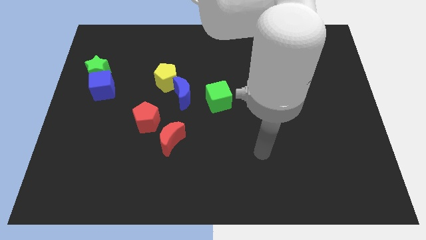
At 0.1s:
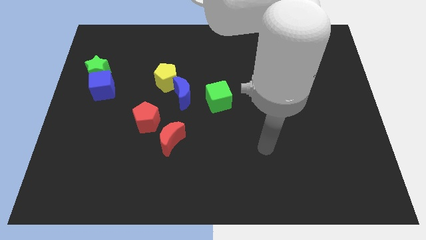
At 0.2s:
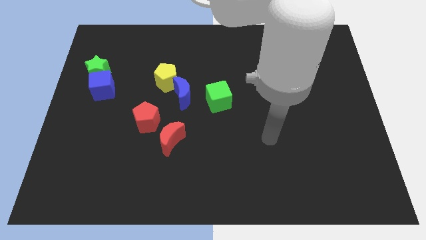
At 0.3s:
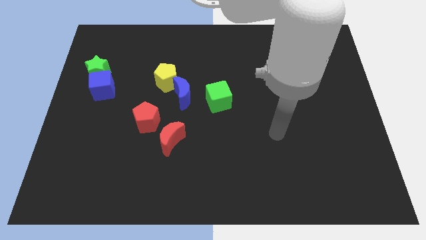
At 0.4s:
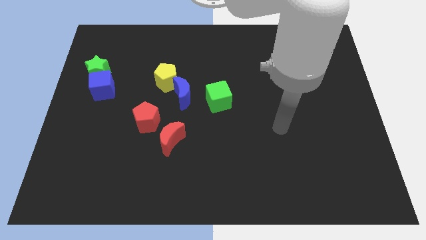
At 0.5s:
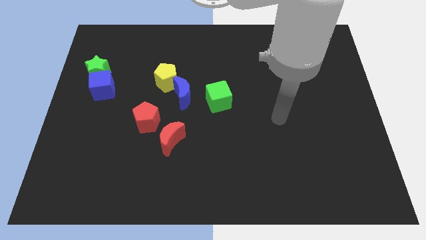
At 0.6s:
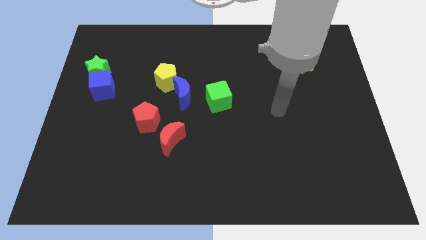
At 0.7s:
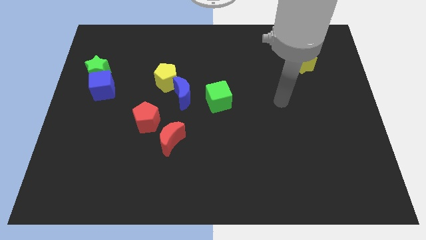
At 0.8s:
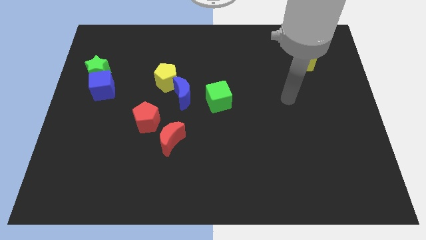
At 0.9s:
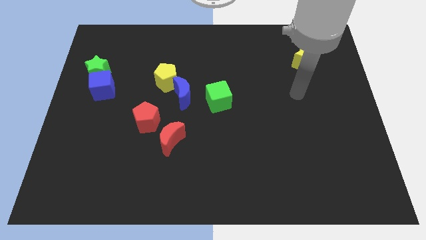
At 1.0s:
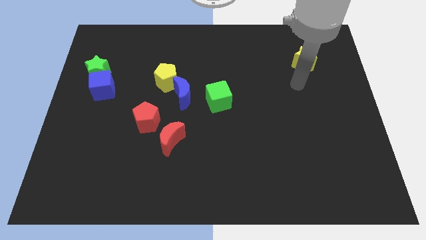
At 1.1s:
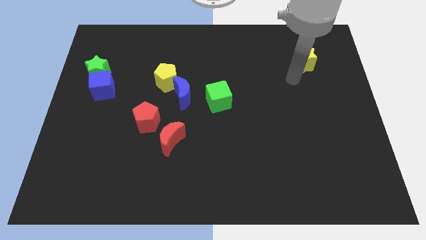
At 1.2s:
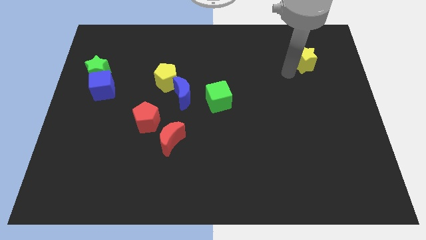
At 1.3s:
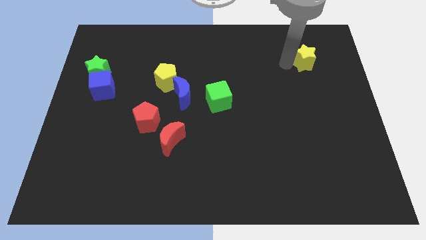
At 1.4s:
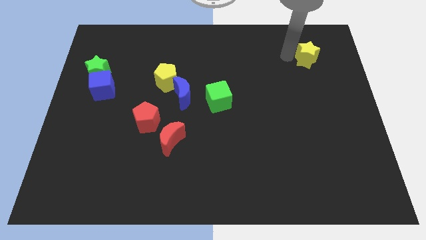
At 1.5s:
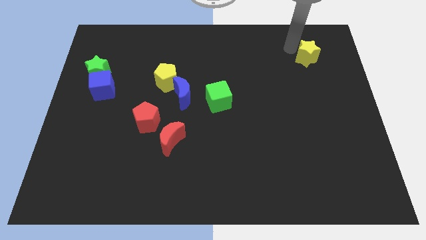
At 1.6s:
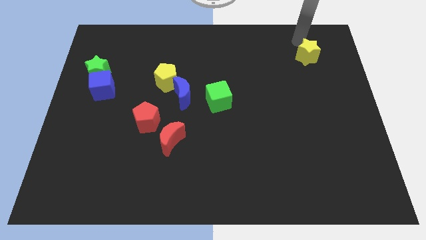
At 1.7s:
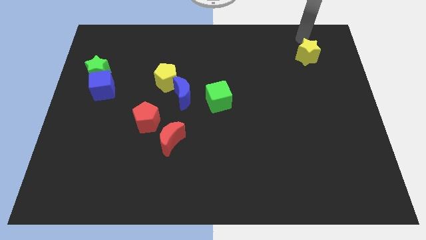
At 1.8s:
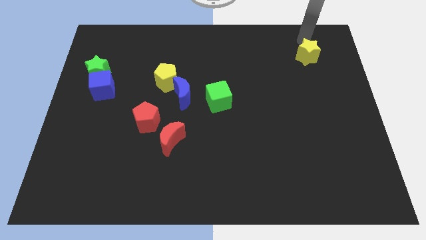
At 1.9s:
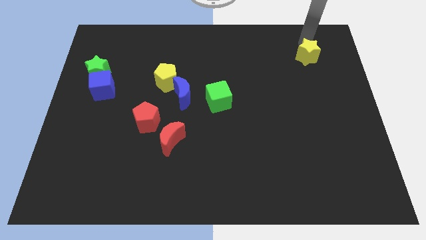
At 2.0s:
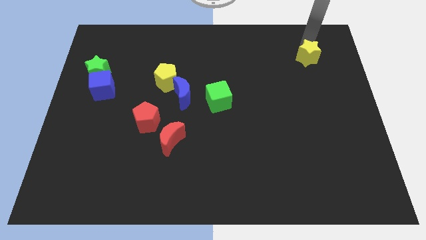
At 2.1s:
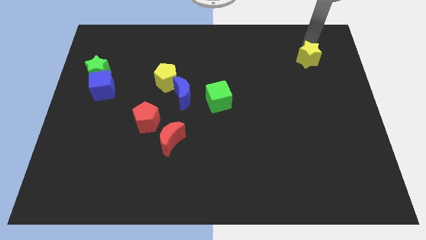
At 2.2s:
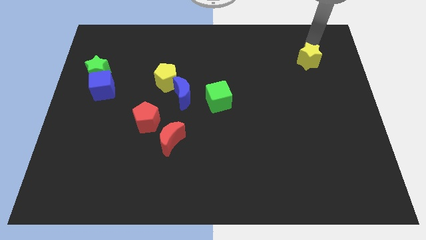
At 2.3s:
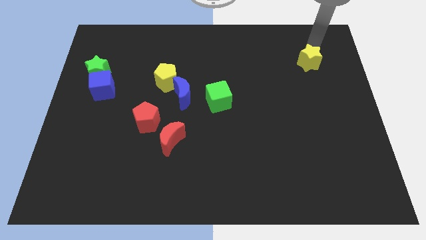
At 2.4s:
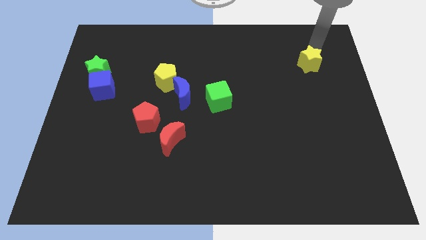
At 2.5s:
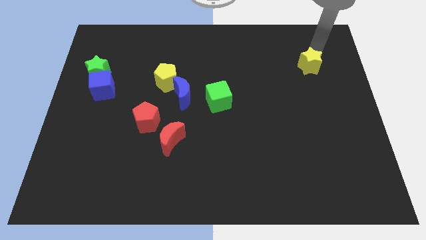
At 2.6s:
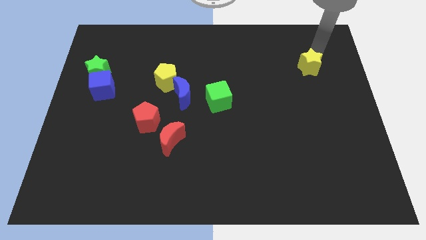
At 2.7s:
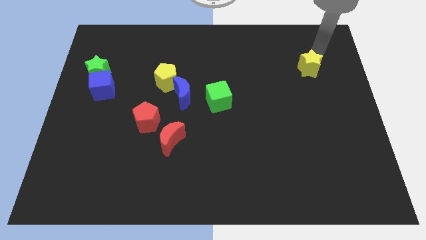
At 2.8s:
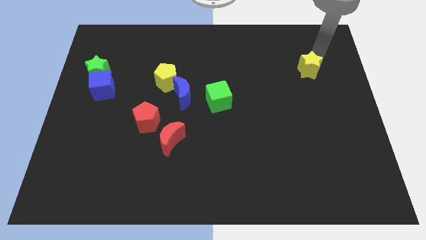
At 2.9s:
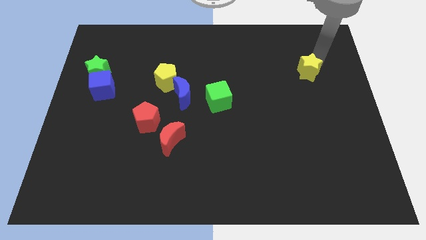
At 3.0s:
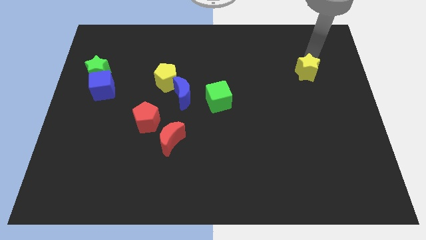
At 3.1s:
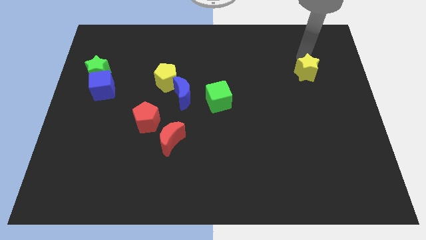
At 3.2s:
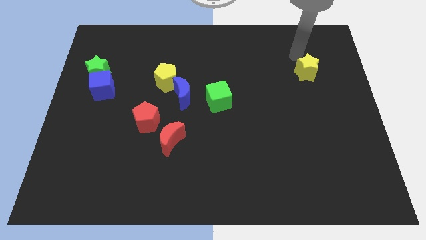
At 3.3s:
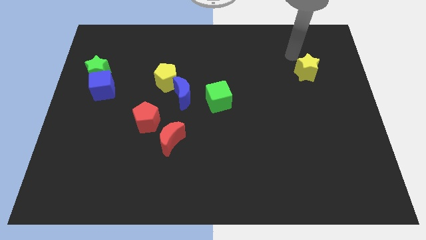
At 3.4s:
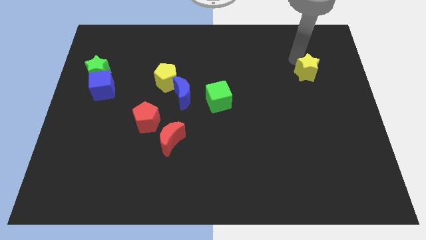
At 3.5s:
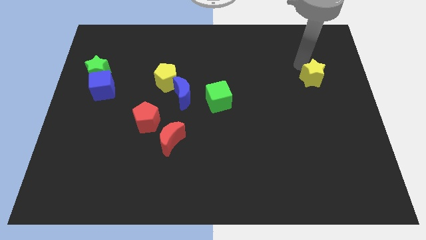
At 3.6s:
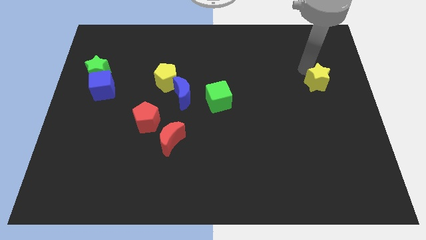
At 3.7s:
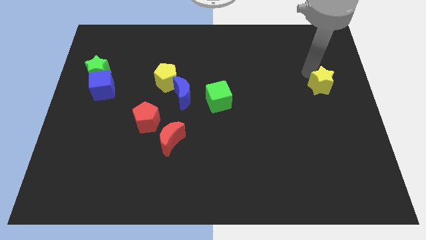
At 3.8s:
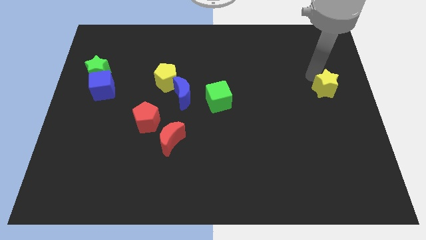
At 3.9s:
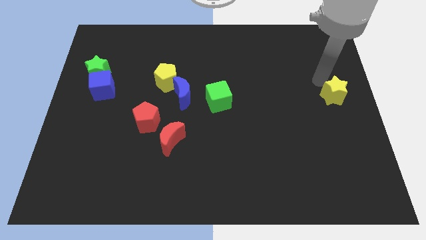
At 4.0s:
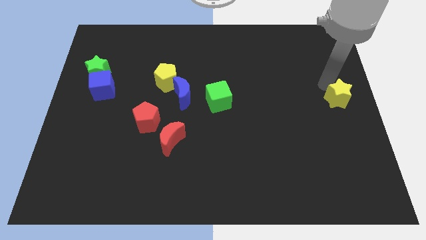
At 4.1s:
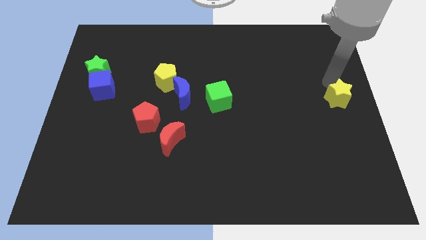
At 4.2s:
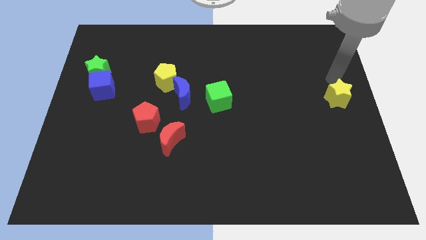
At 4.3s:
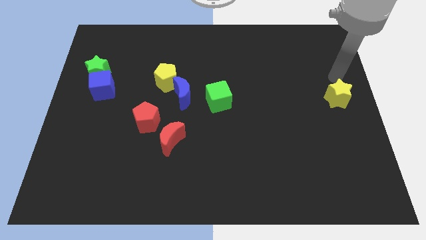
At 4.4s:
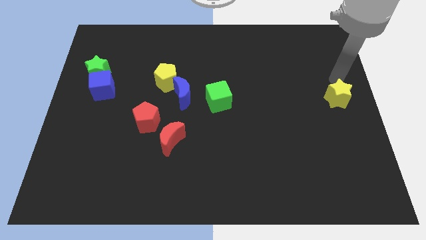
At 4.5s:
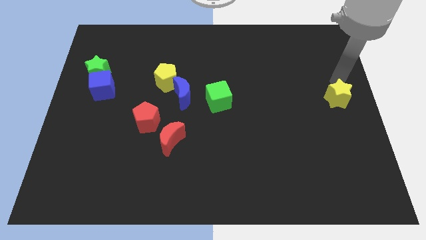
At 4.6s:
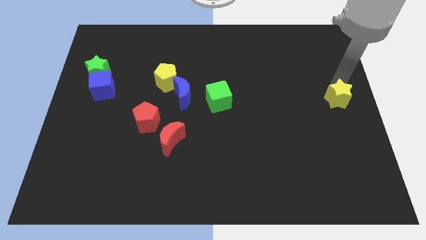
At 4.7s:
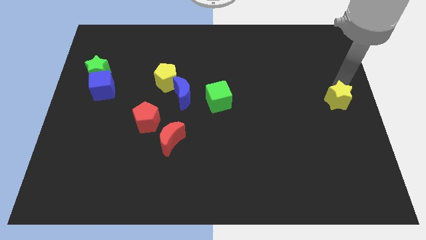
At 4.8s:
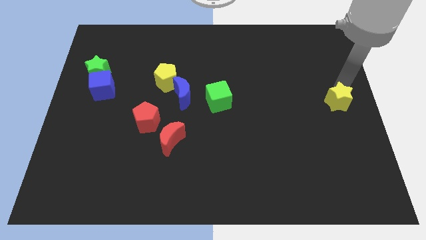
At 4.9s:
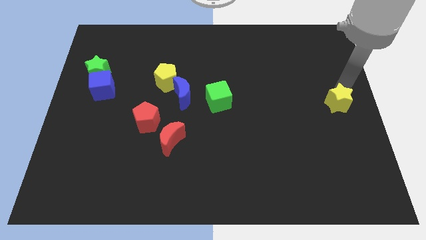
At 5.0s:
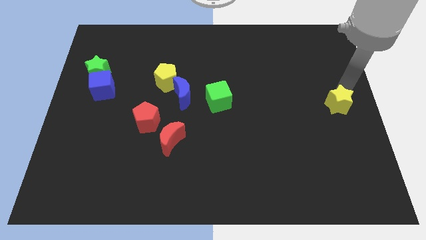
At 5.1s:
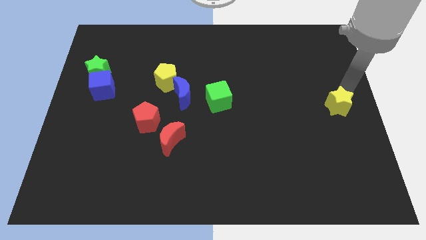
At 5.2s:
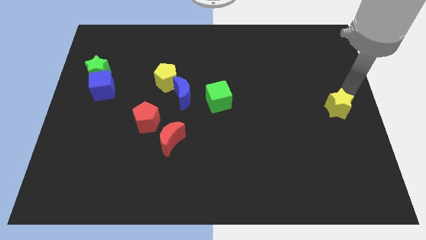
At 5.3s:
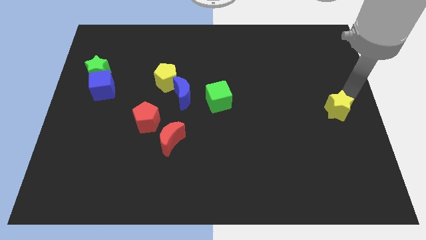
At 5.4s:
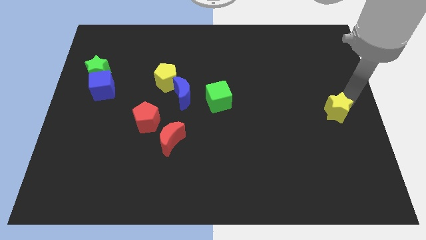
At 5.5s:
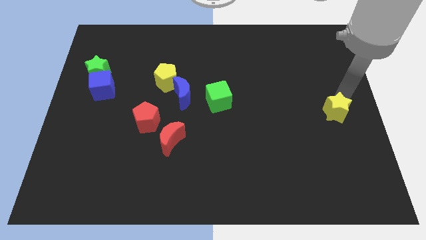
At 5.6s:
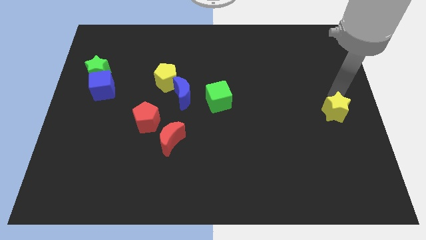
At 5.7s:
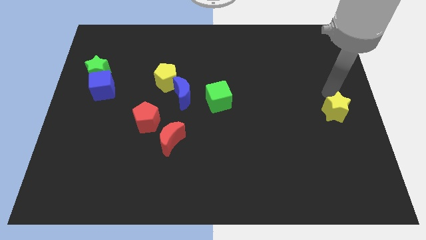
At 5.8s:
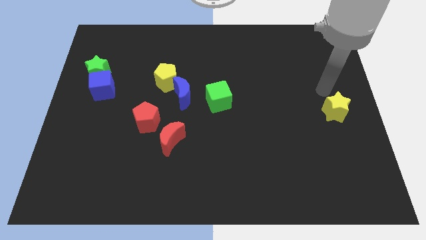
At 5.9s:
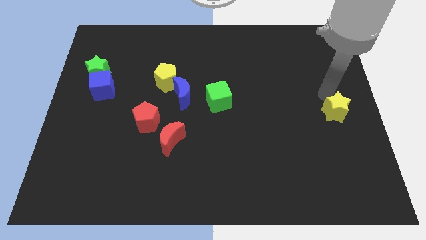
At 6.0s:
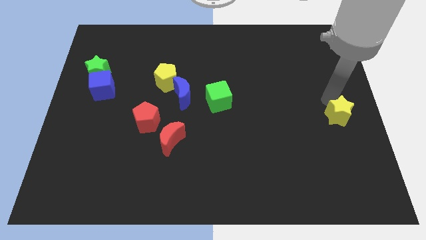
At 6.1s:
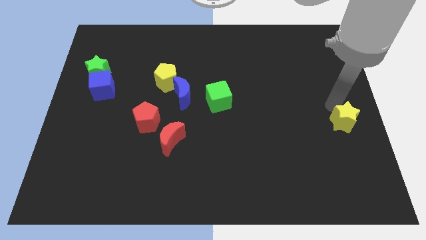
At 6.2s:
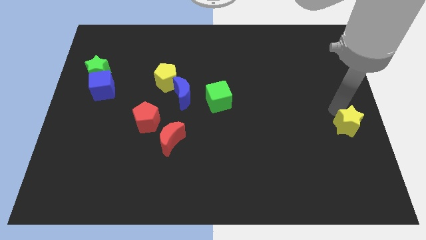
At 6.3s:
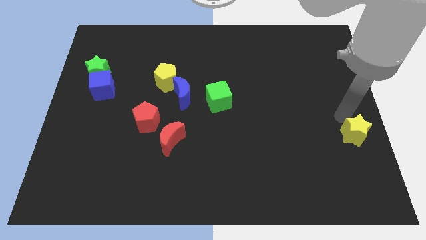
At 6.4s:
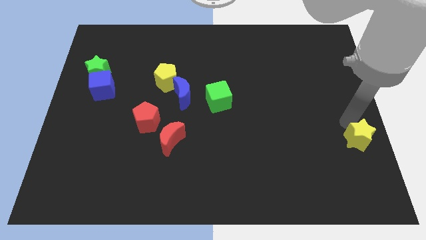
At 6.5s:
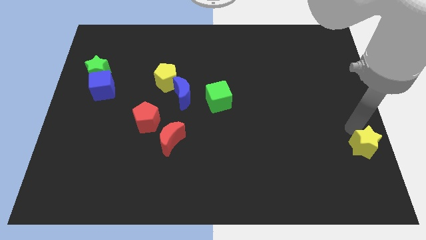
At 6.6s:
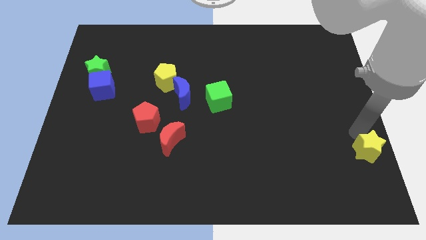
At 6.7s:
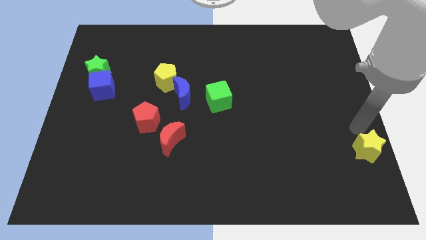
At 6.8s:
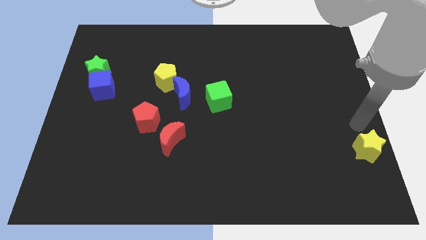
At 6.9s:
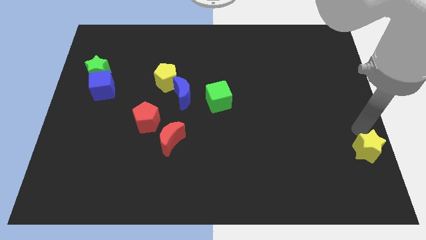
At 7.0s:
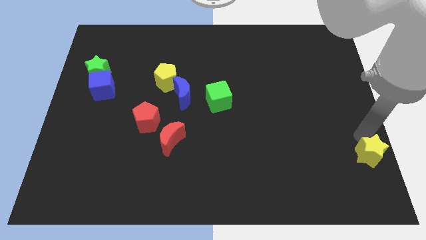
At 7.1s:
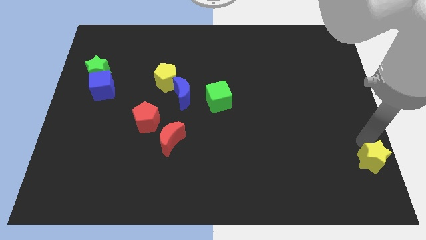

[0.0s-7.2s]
push the yellow star to the lower right corner
